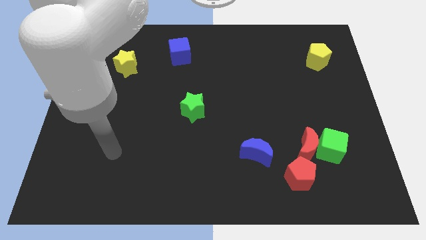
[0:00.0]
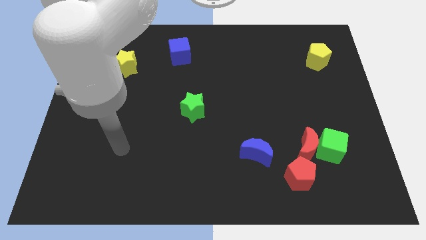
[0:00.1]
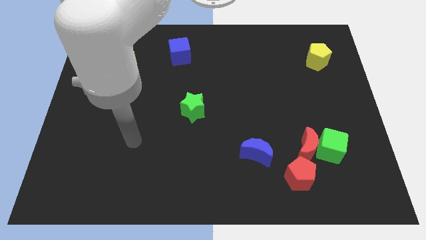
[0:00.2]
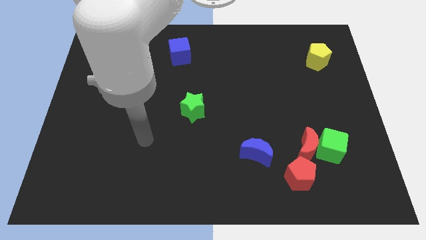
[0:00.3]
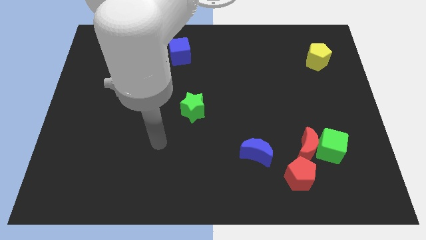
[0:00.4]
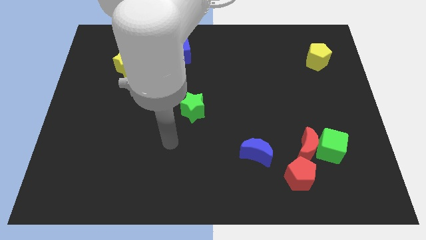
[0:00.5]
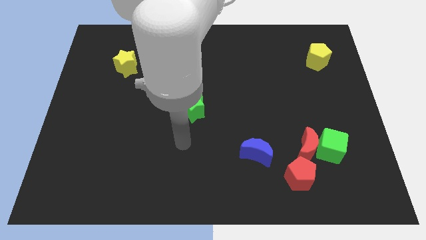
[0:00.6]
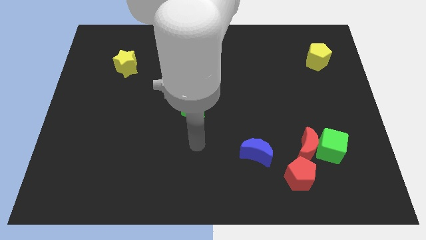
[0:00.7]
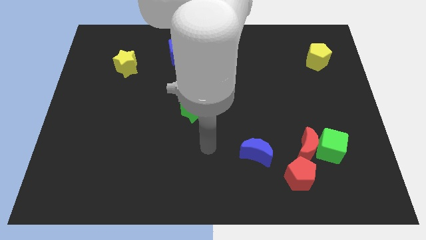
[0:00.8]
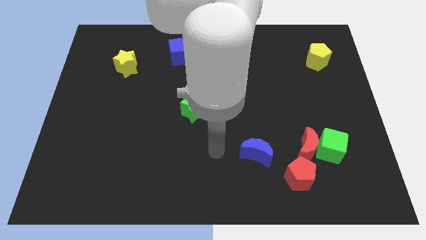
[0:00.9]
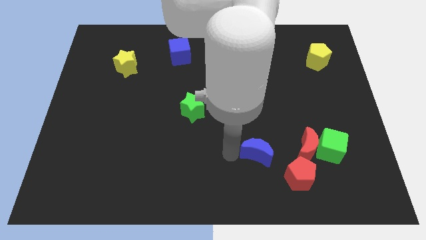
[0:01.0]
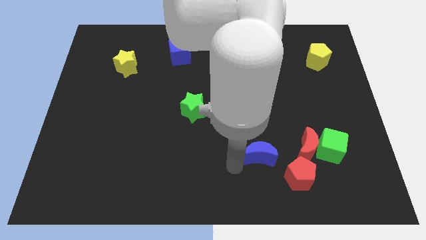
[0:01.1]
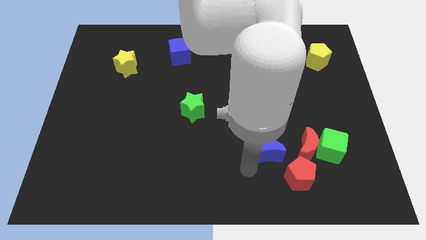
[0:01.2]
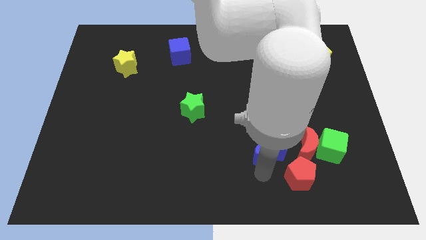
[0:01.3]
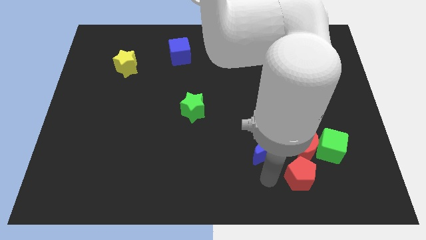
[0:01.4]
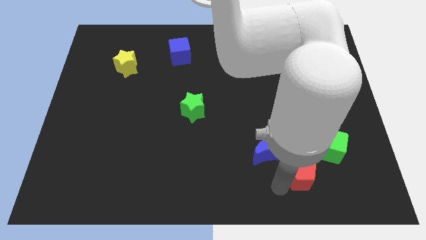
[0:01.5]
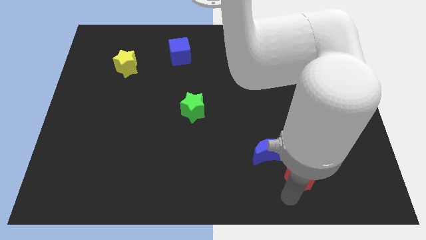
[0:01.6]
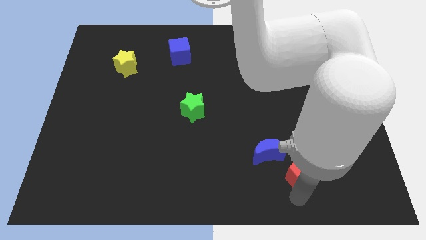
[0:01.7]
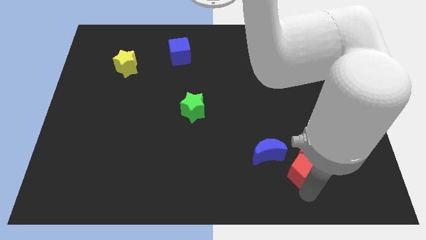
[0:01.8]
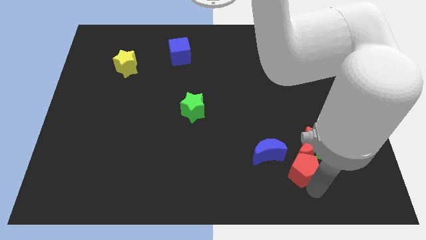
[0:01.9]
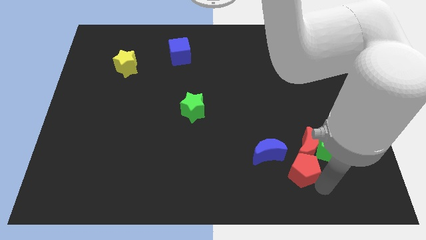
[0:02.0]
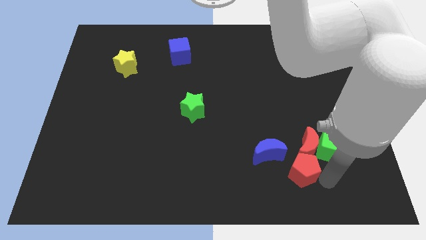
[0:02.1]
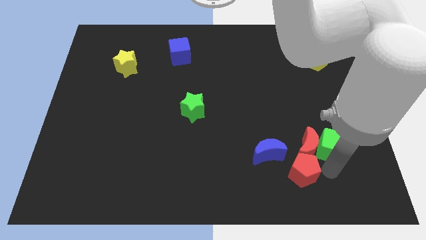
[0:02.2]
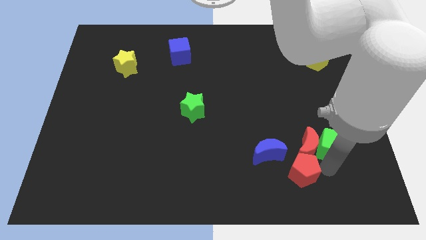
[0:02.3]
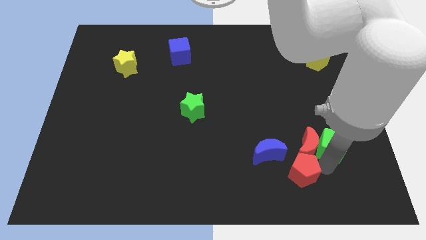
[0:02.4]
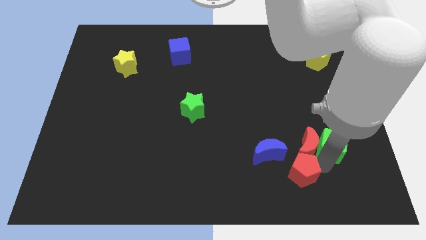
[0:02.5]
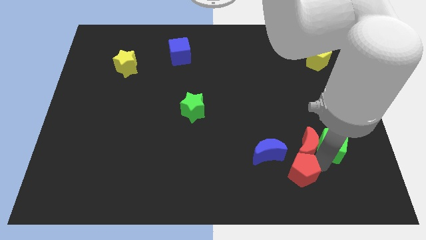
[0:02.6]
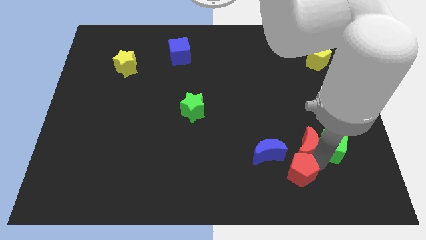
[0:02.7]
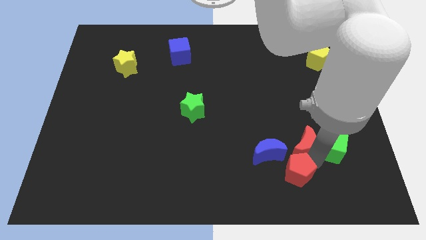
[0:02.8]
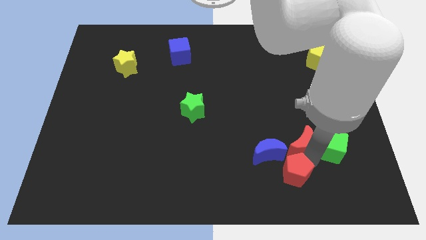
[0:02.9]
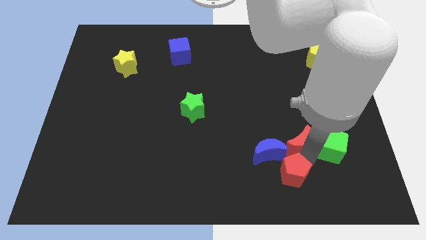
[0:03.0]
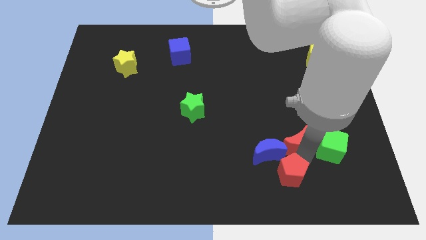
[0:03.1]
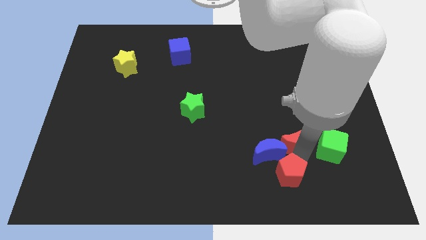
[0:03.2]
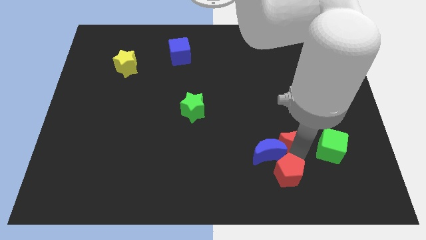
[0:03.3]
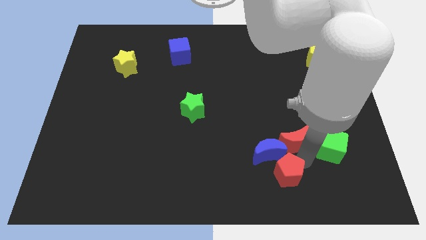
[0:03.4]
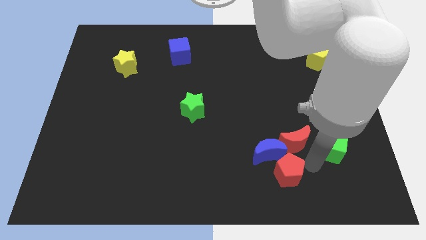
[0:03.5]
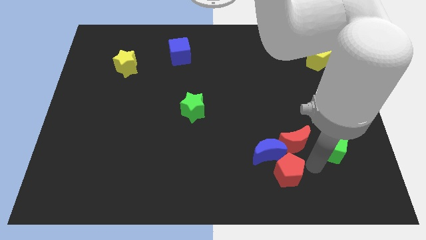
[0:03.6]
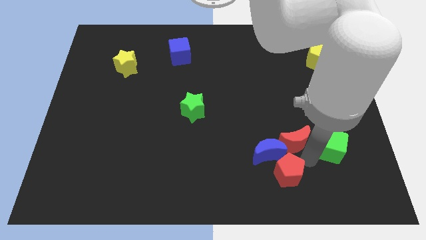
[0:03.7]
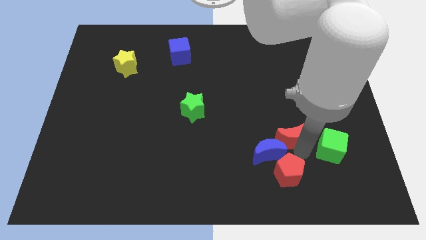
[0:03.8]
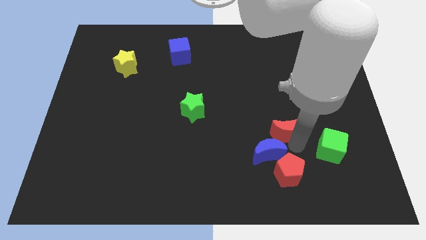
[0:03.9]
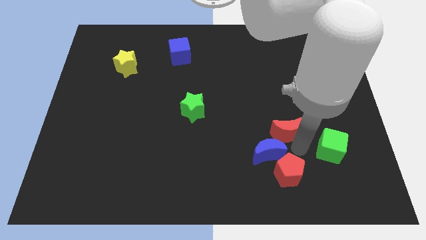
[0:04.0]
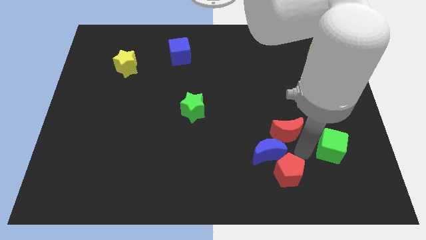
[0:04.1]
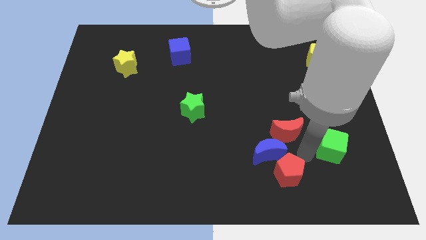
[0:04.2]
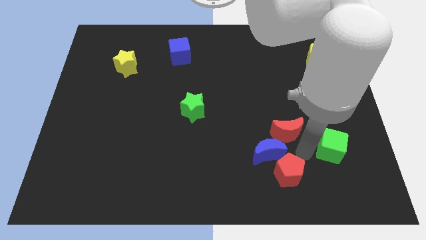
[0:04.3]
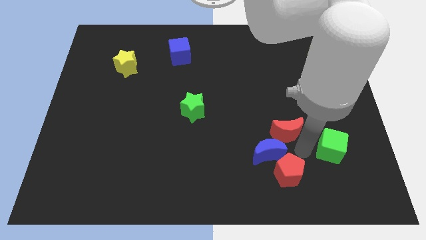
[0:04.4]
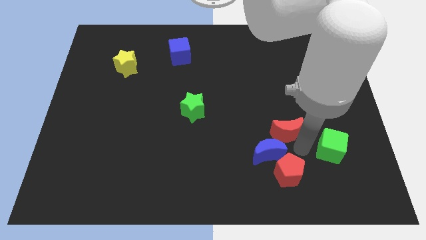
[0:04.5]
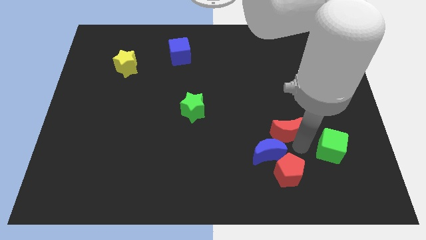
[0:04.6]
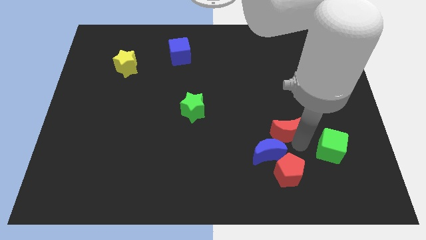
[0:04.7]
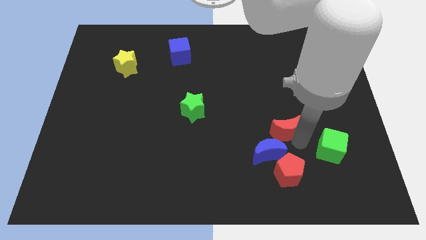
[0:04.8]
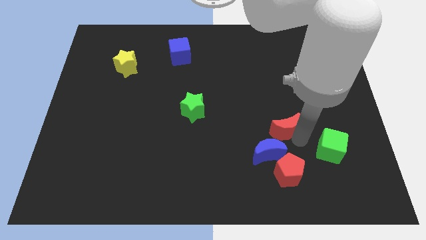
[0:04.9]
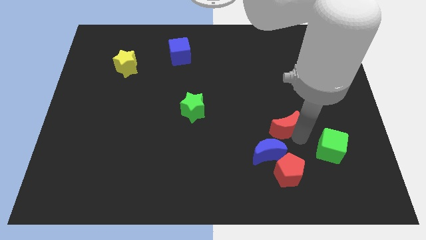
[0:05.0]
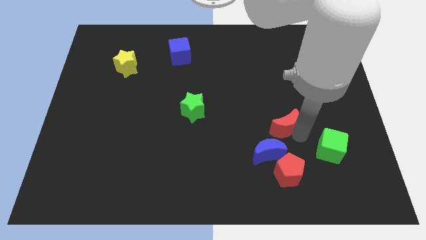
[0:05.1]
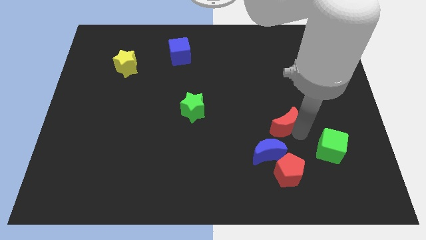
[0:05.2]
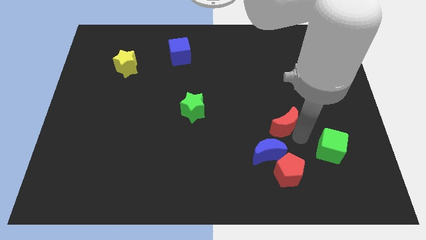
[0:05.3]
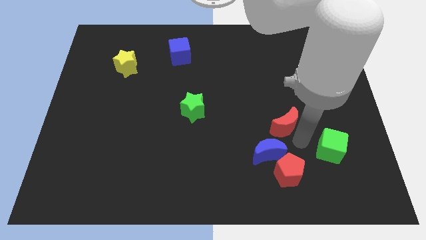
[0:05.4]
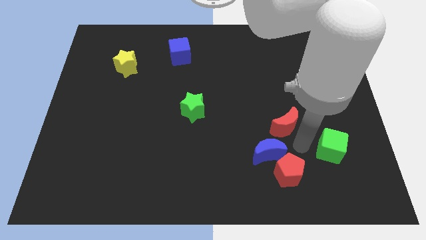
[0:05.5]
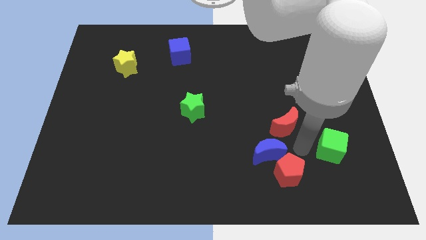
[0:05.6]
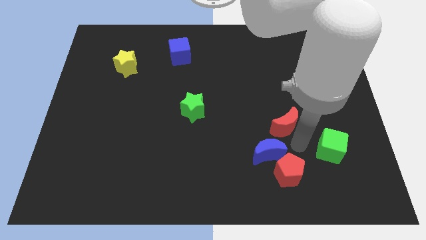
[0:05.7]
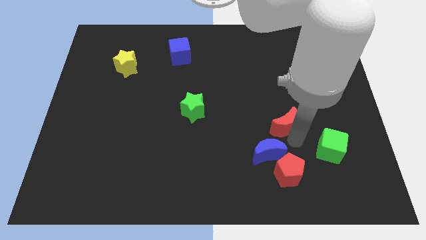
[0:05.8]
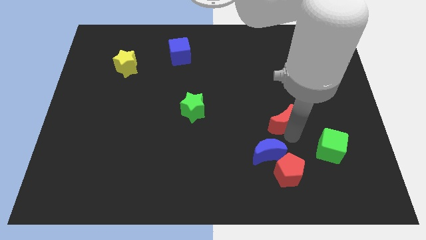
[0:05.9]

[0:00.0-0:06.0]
separate the red moon from the green cube and red pentagon

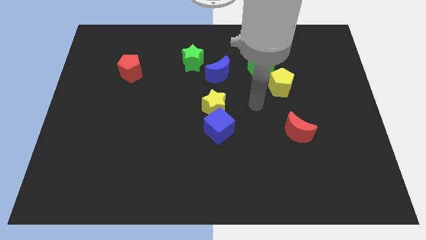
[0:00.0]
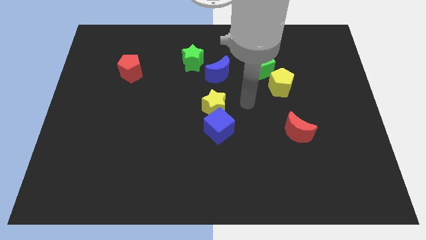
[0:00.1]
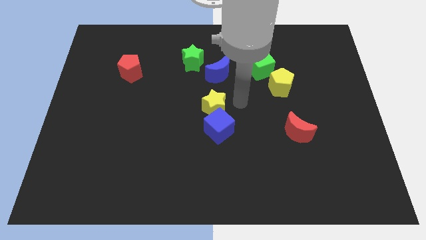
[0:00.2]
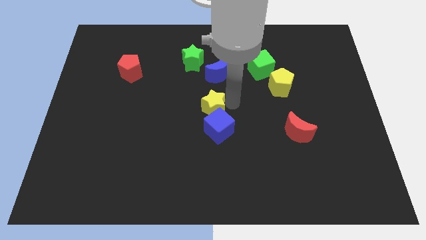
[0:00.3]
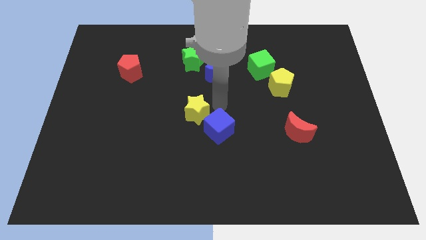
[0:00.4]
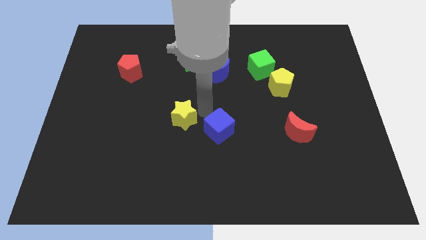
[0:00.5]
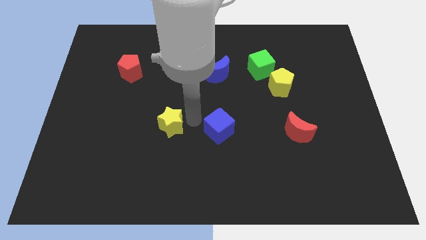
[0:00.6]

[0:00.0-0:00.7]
separate the blue cube from the yellow star

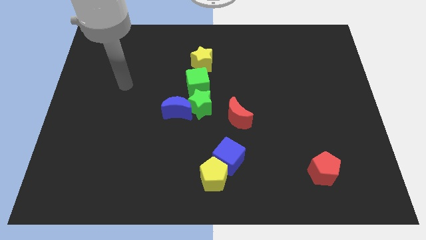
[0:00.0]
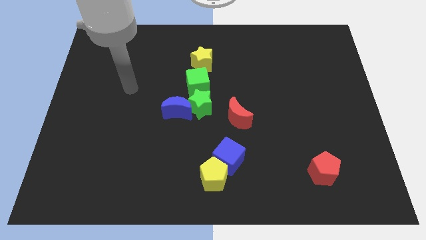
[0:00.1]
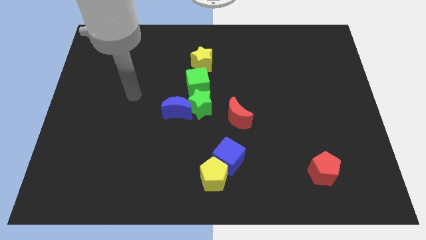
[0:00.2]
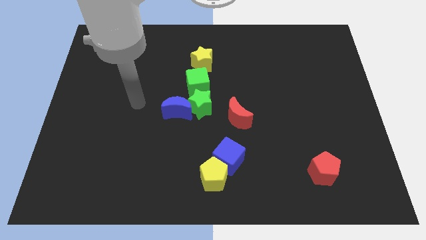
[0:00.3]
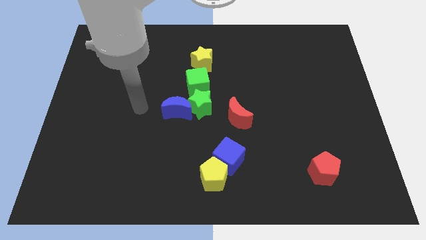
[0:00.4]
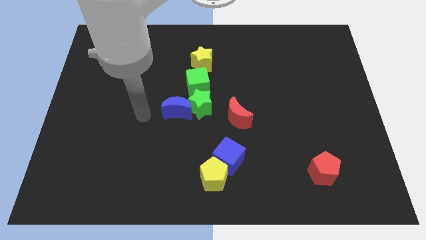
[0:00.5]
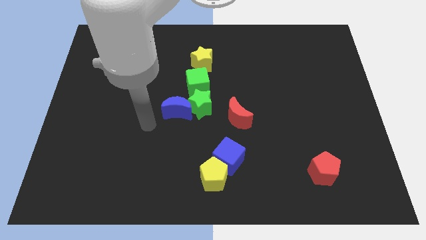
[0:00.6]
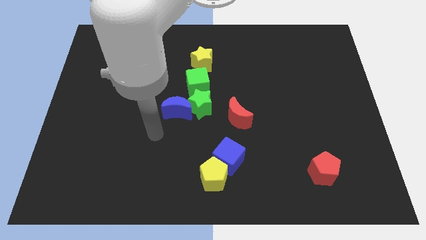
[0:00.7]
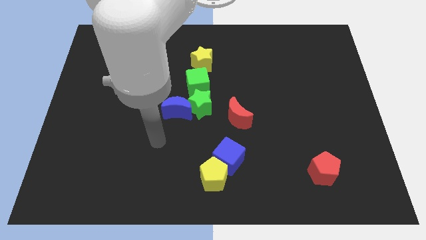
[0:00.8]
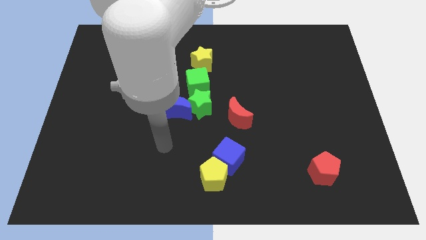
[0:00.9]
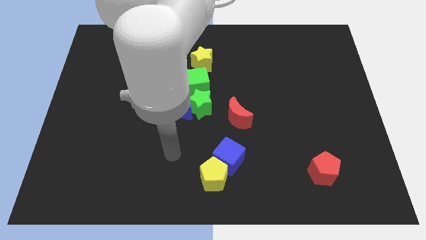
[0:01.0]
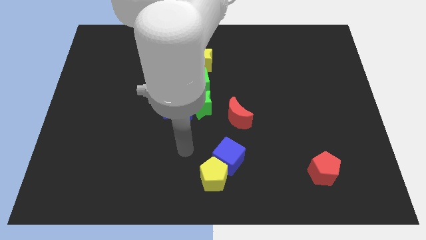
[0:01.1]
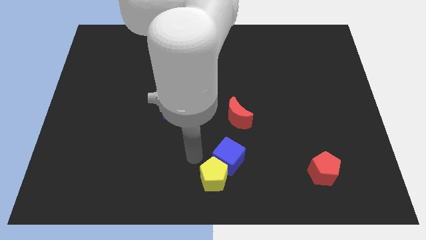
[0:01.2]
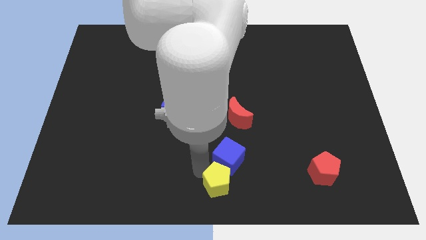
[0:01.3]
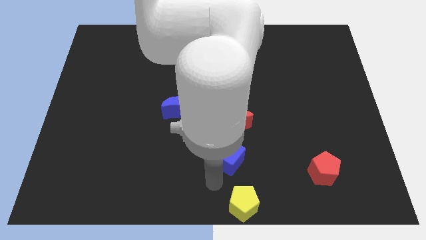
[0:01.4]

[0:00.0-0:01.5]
separate the blue cube from the yellow pentagon

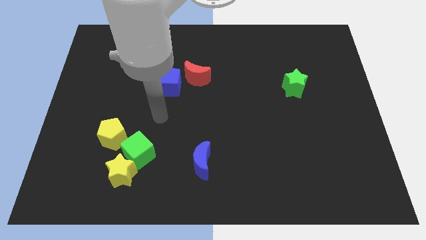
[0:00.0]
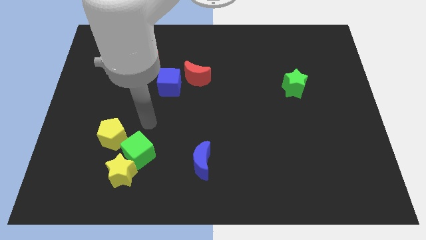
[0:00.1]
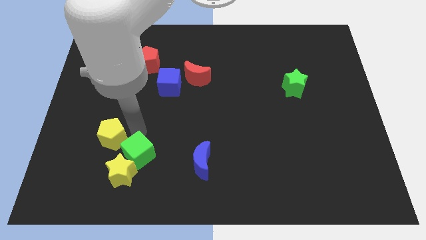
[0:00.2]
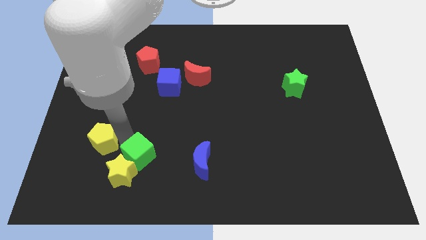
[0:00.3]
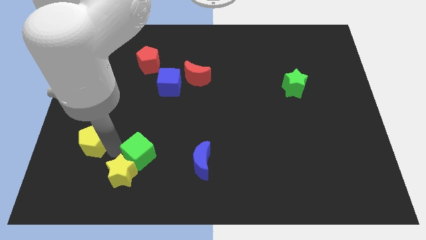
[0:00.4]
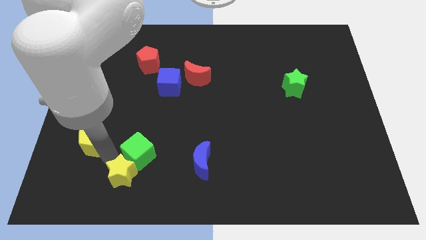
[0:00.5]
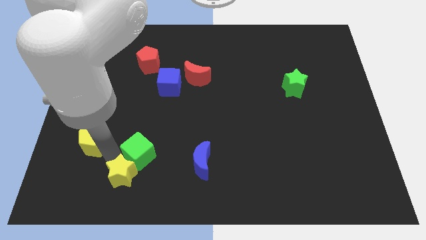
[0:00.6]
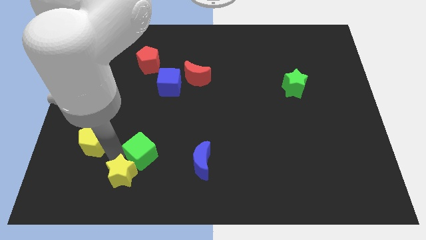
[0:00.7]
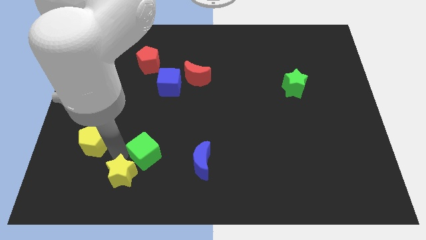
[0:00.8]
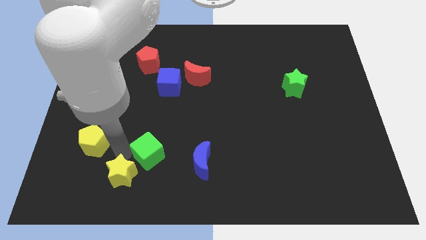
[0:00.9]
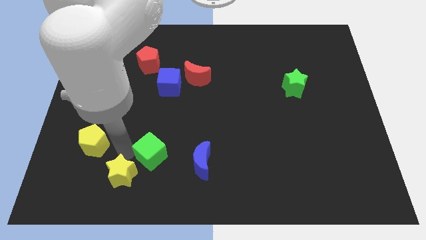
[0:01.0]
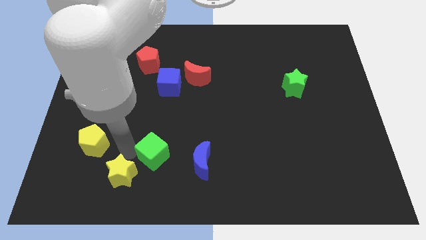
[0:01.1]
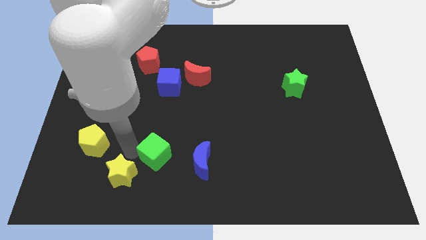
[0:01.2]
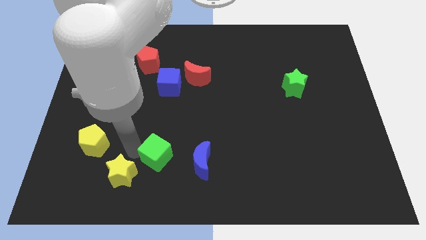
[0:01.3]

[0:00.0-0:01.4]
move the green cube away from the yellow star and yellow pentagon
